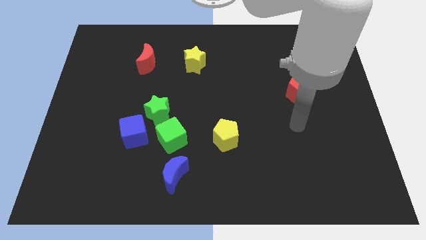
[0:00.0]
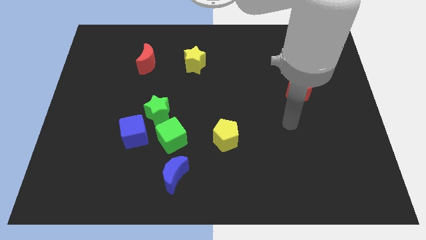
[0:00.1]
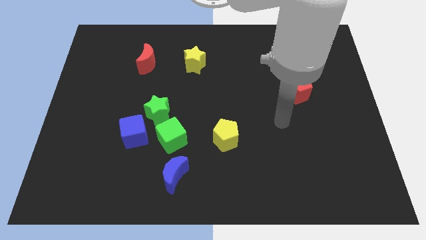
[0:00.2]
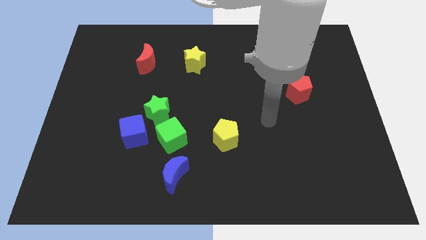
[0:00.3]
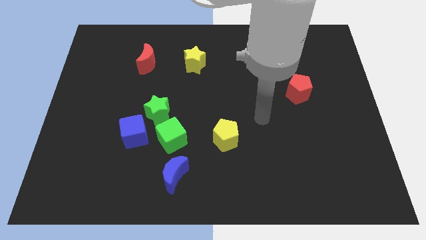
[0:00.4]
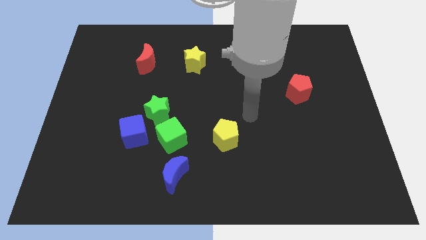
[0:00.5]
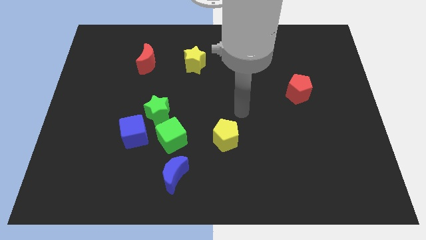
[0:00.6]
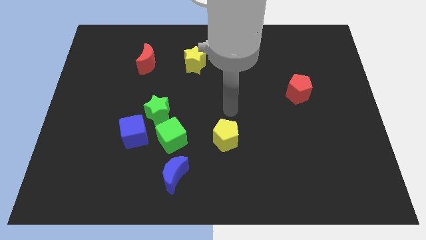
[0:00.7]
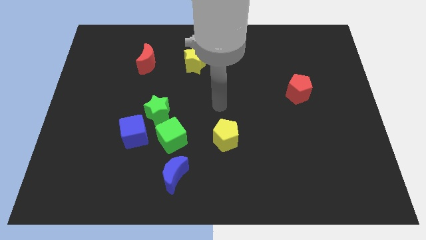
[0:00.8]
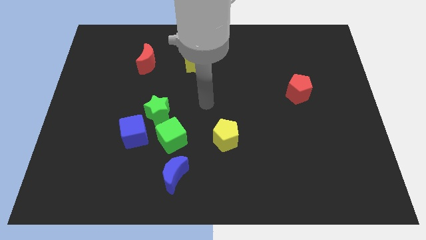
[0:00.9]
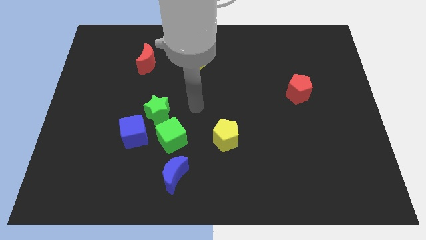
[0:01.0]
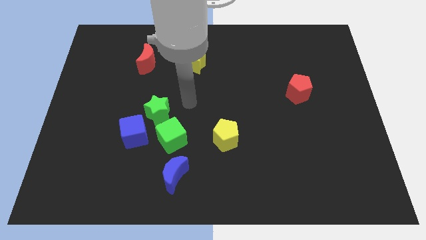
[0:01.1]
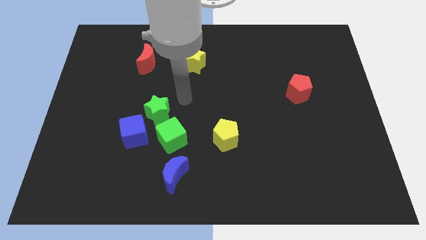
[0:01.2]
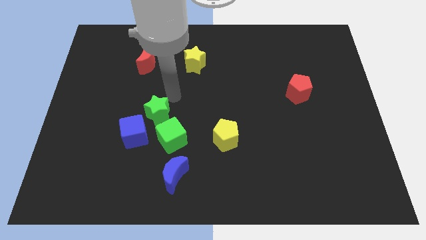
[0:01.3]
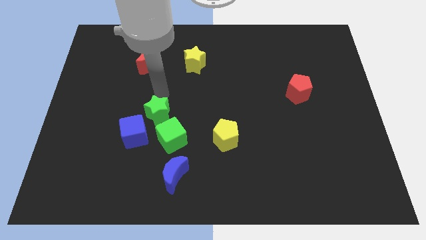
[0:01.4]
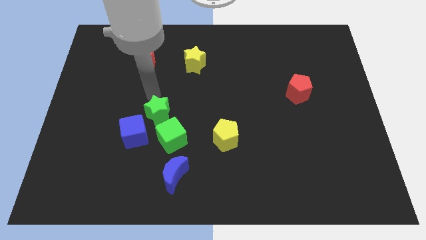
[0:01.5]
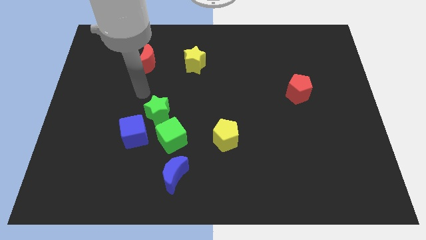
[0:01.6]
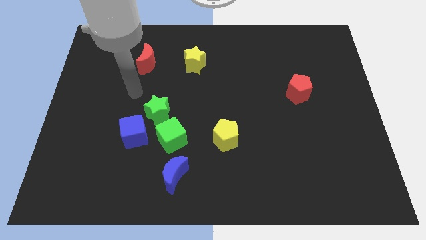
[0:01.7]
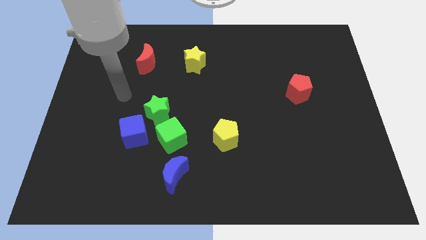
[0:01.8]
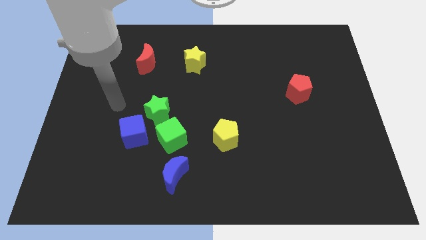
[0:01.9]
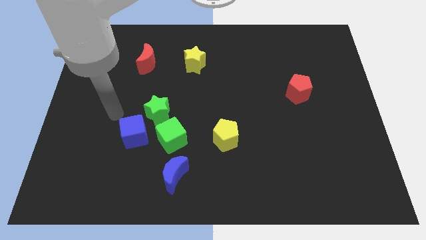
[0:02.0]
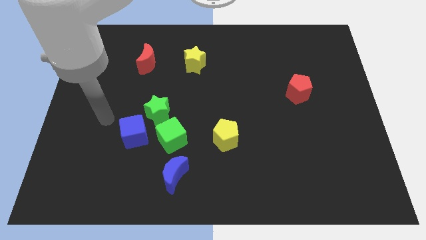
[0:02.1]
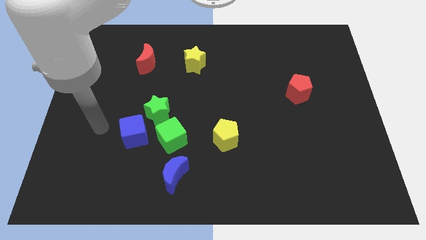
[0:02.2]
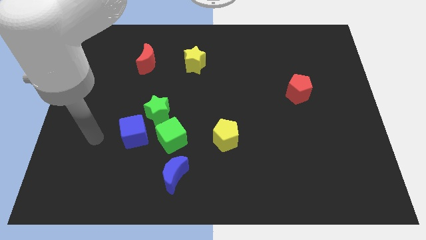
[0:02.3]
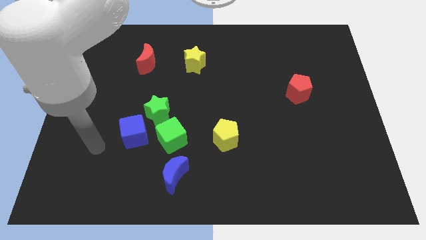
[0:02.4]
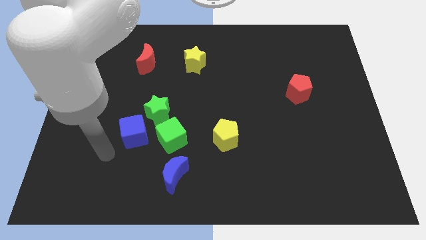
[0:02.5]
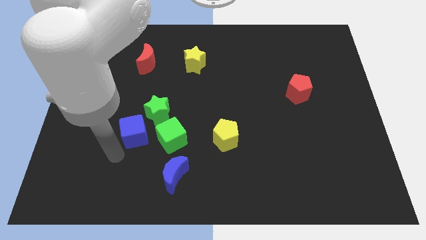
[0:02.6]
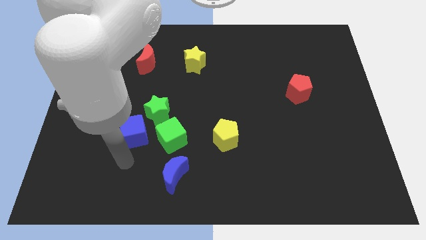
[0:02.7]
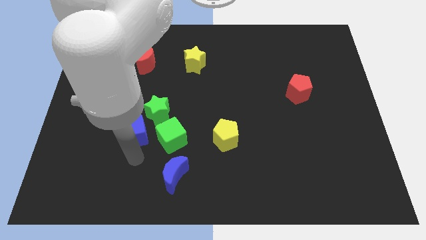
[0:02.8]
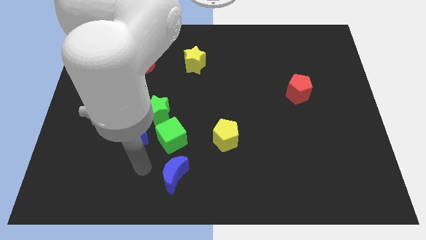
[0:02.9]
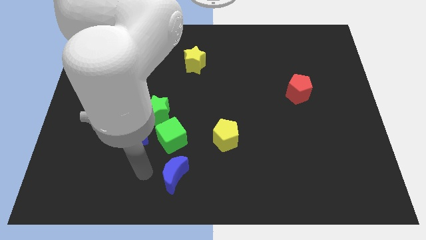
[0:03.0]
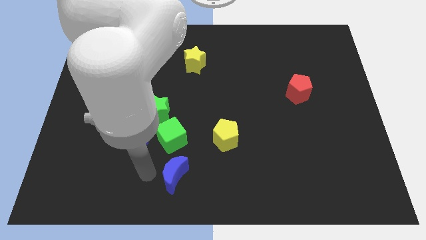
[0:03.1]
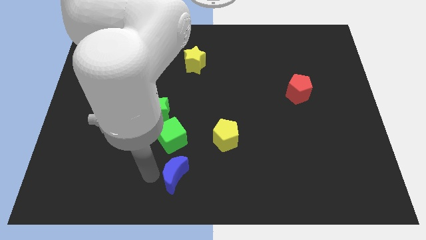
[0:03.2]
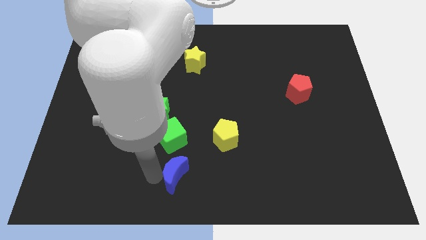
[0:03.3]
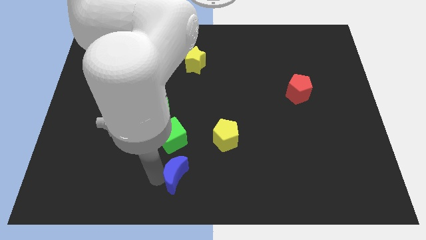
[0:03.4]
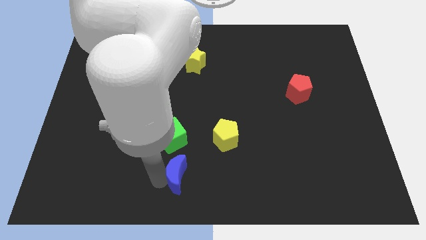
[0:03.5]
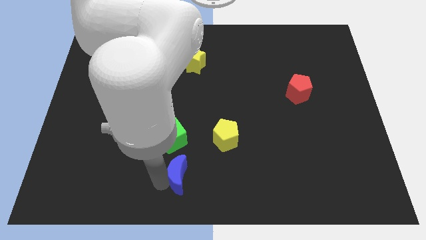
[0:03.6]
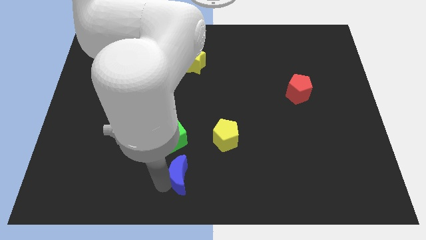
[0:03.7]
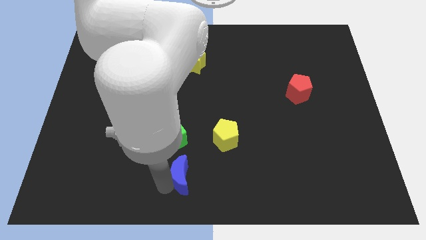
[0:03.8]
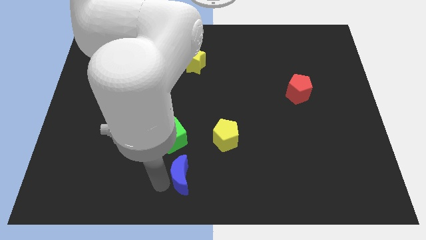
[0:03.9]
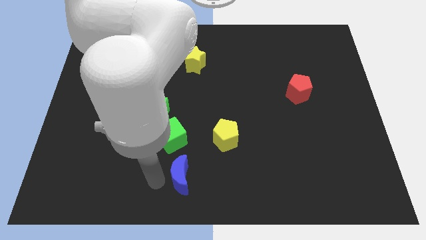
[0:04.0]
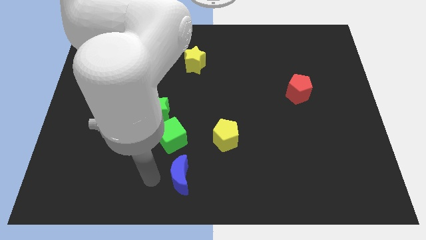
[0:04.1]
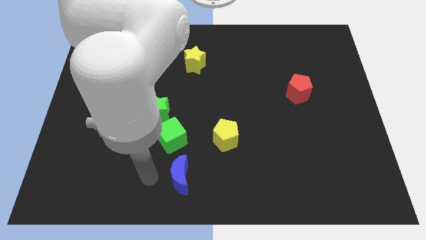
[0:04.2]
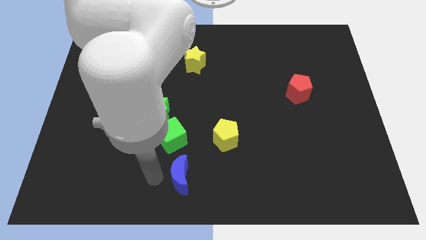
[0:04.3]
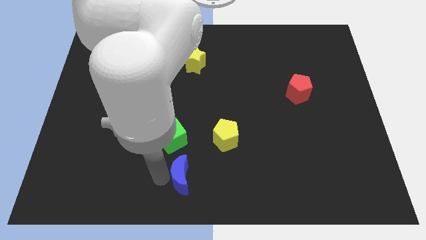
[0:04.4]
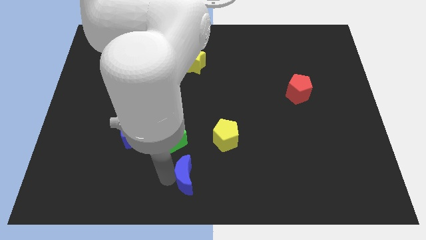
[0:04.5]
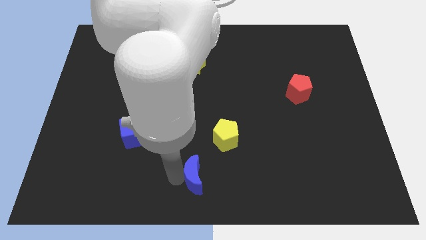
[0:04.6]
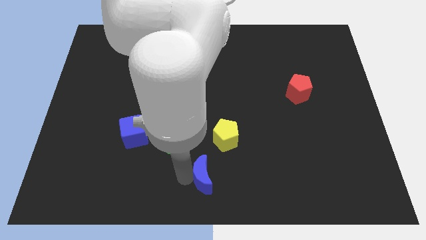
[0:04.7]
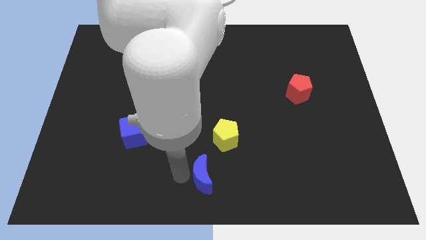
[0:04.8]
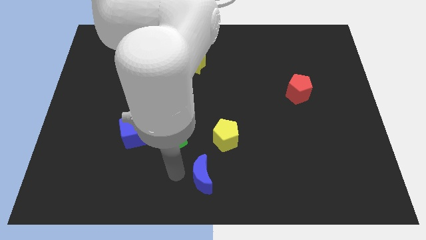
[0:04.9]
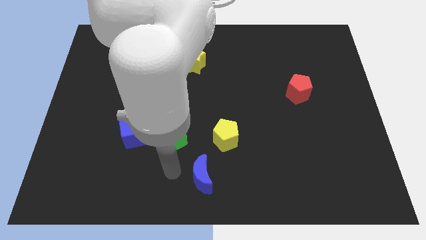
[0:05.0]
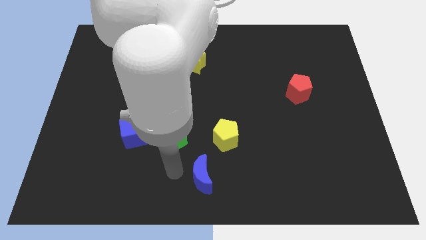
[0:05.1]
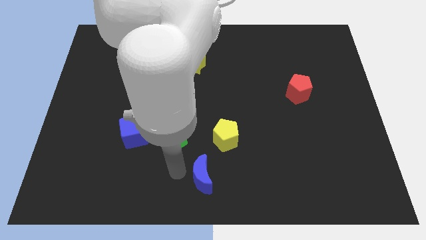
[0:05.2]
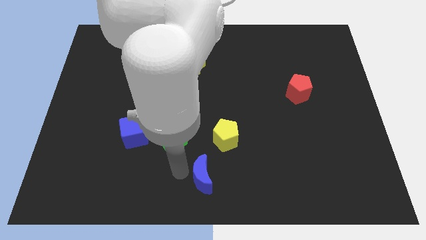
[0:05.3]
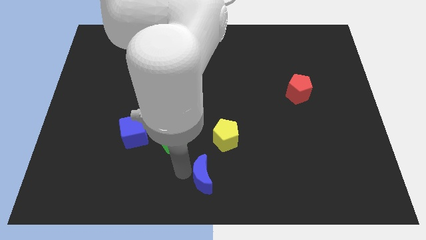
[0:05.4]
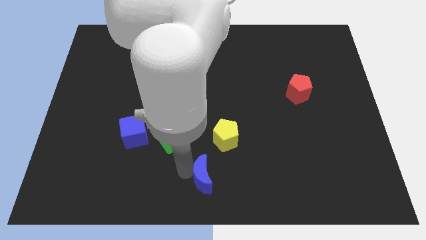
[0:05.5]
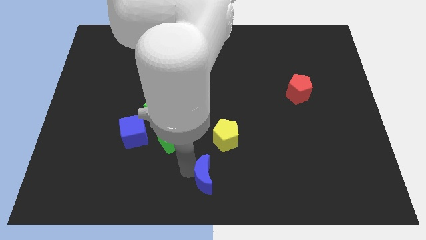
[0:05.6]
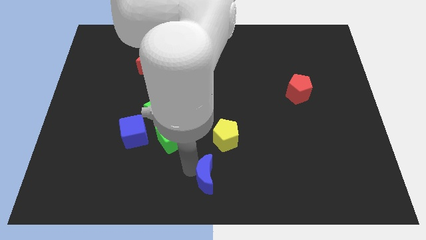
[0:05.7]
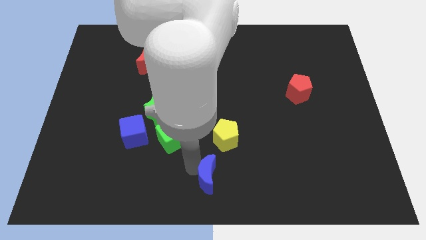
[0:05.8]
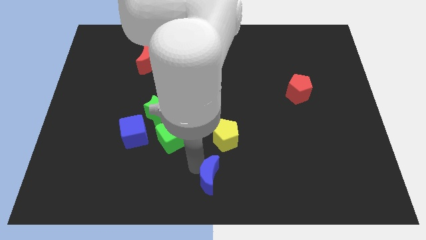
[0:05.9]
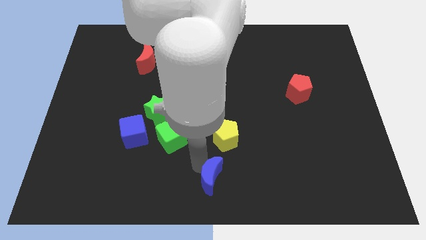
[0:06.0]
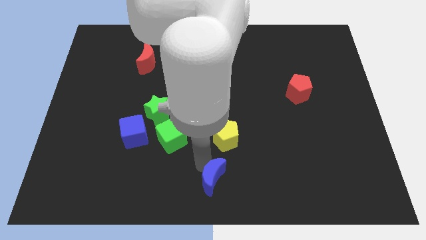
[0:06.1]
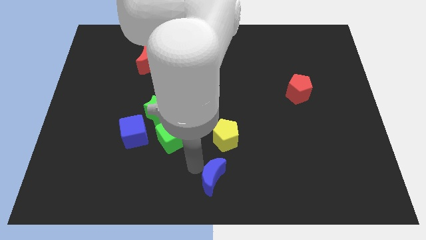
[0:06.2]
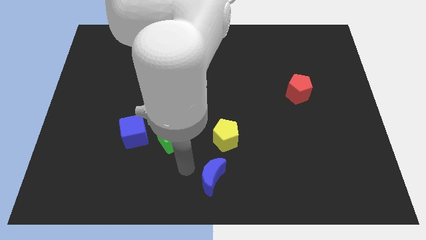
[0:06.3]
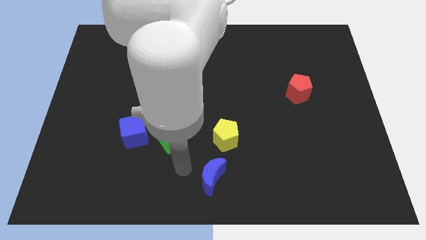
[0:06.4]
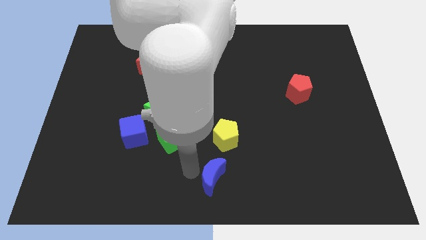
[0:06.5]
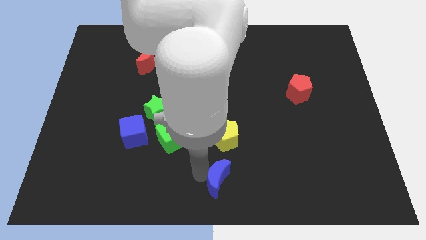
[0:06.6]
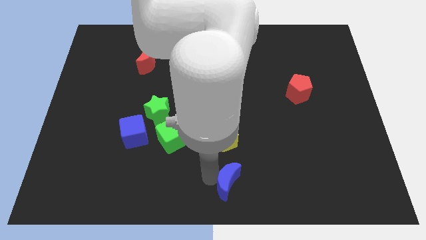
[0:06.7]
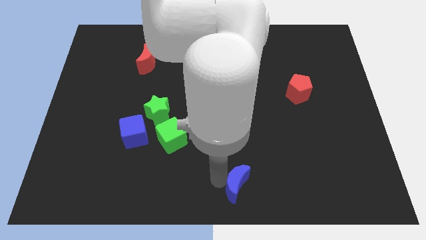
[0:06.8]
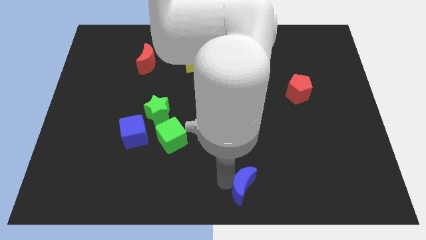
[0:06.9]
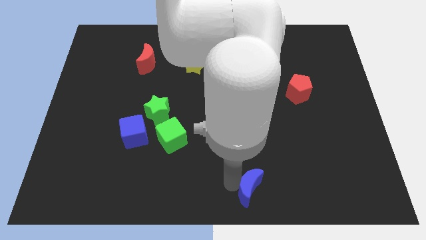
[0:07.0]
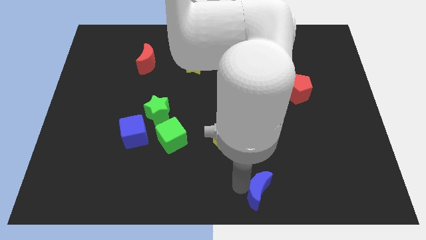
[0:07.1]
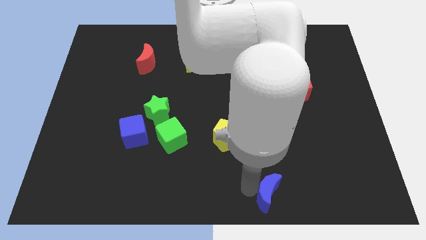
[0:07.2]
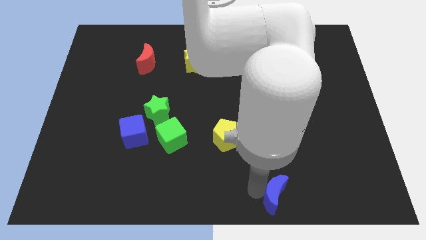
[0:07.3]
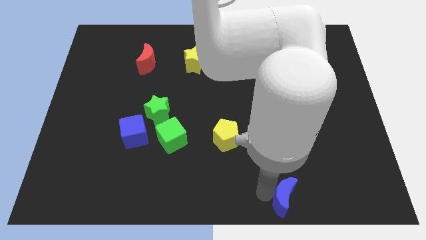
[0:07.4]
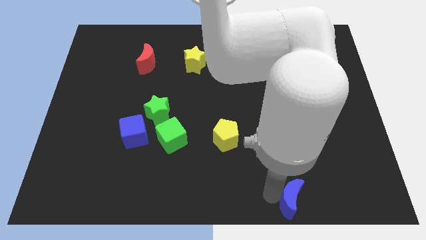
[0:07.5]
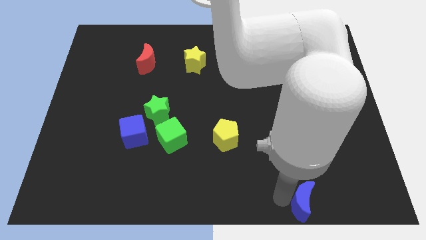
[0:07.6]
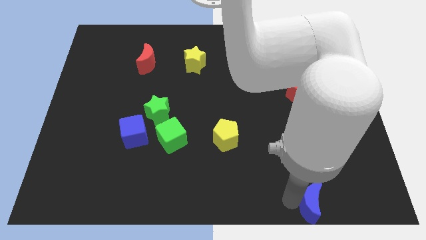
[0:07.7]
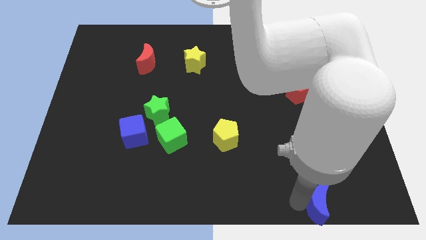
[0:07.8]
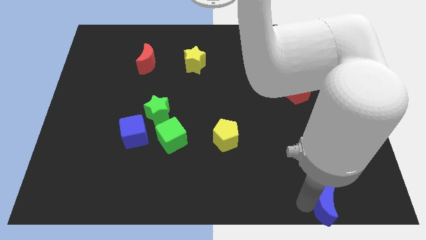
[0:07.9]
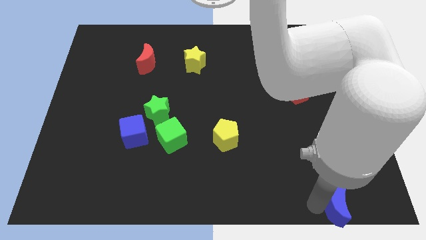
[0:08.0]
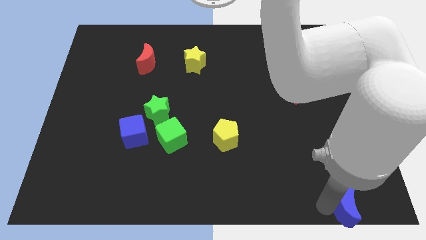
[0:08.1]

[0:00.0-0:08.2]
move the blue moon to the lower right corner
